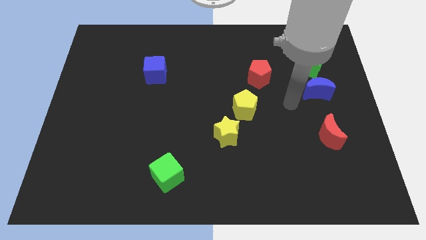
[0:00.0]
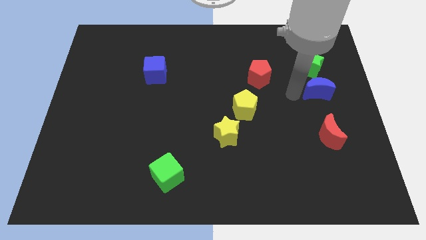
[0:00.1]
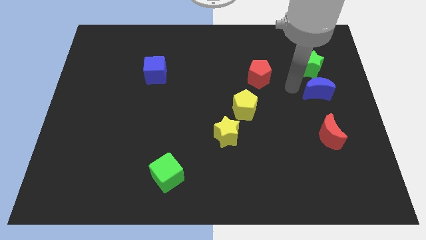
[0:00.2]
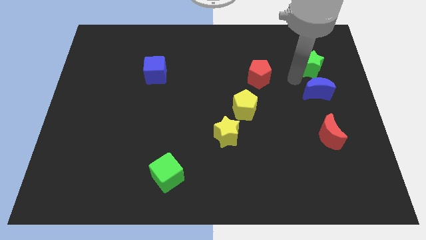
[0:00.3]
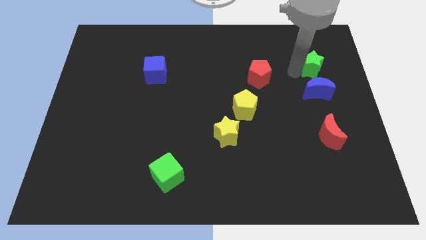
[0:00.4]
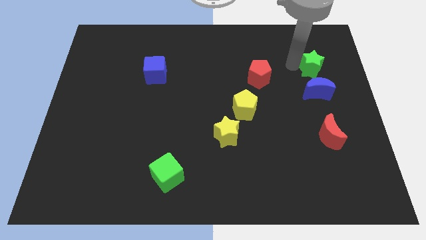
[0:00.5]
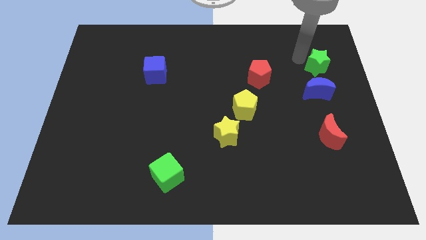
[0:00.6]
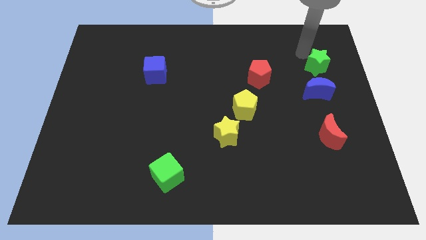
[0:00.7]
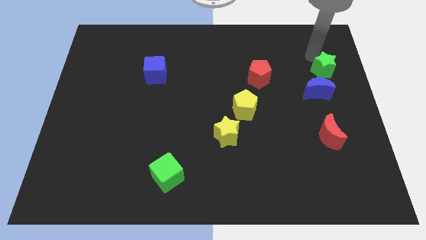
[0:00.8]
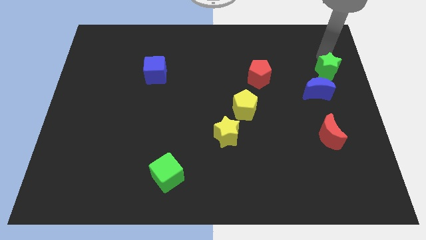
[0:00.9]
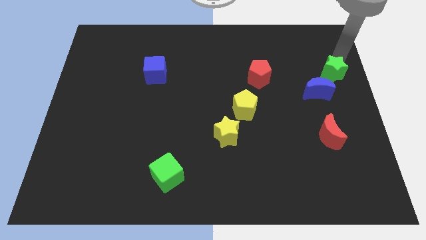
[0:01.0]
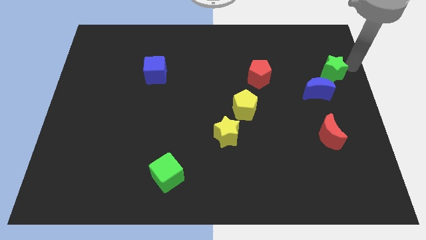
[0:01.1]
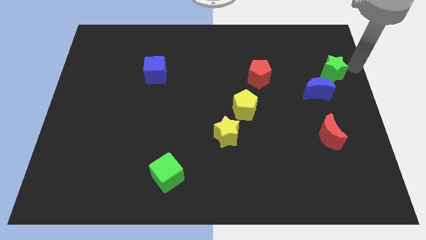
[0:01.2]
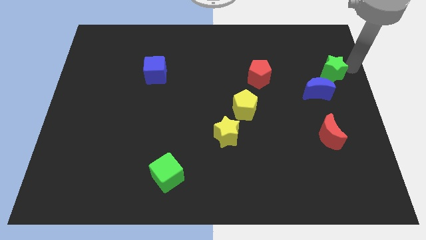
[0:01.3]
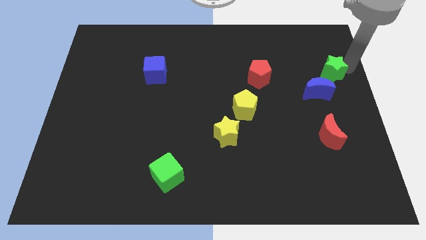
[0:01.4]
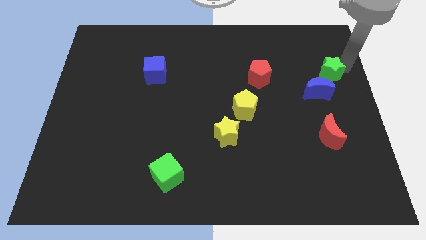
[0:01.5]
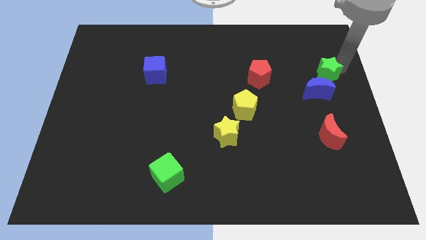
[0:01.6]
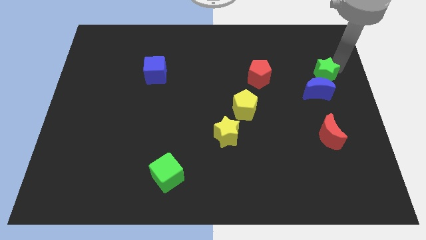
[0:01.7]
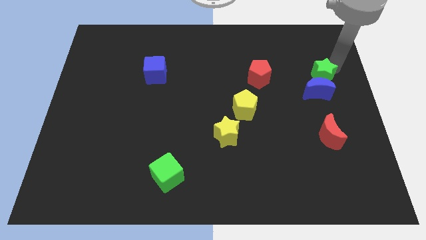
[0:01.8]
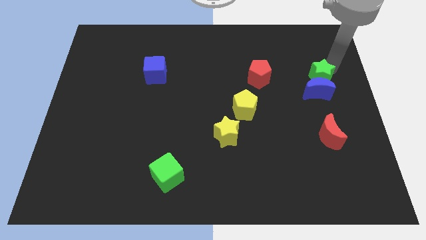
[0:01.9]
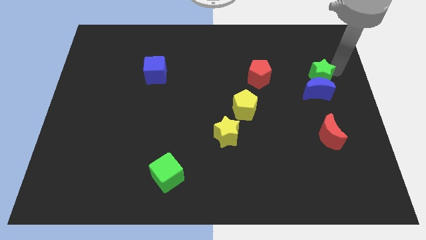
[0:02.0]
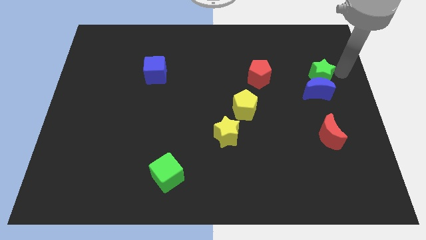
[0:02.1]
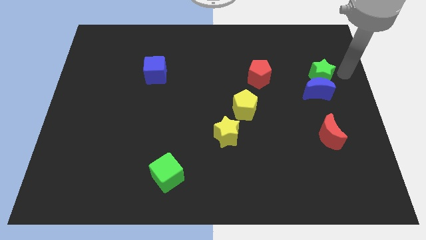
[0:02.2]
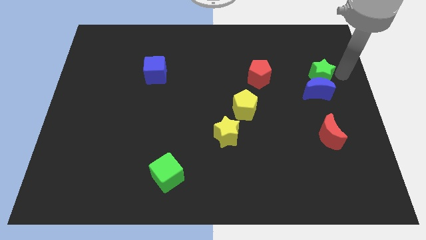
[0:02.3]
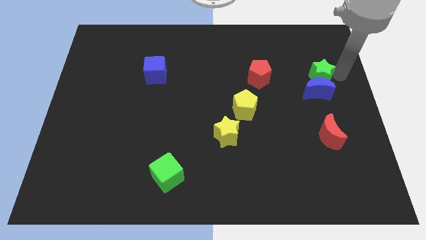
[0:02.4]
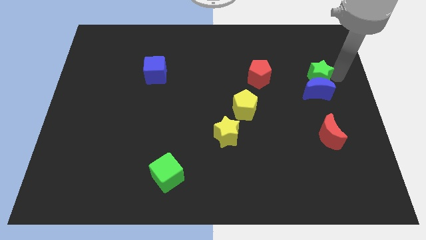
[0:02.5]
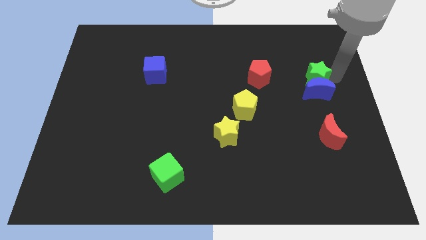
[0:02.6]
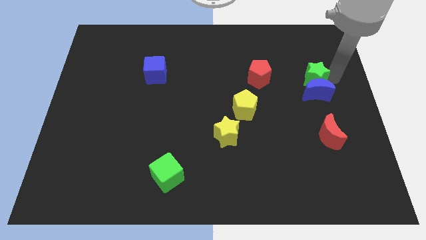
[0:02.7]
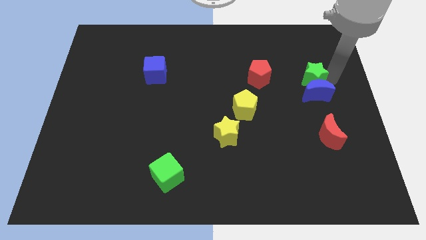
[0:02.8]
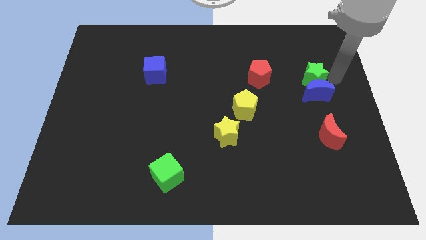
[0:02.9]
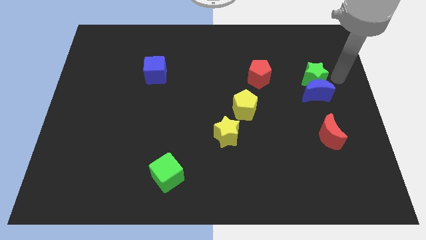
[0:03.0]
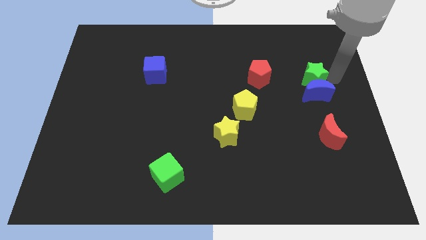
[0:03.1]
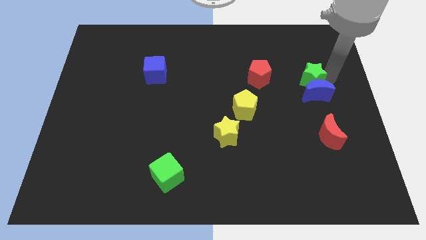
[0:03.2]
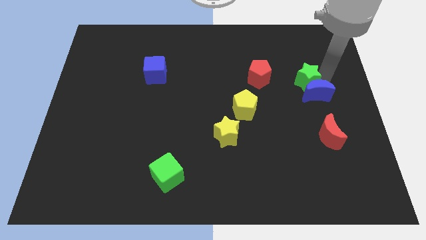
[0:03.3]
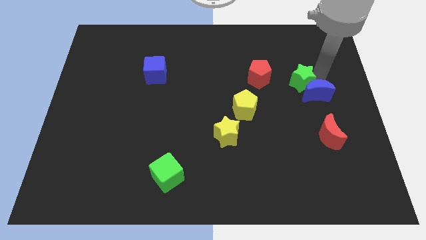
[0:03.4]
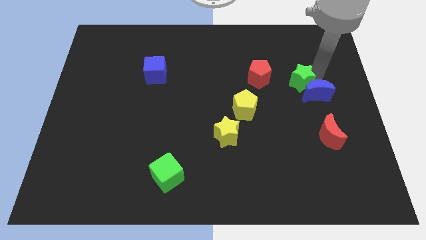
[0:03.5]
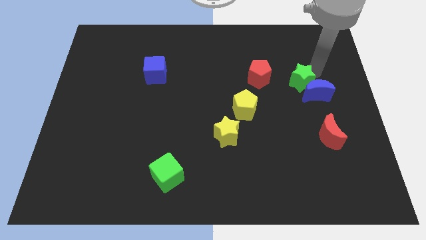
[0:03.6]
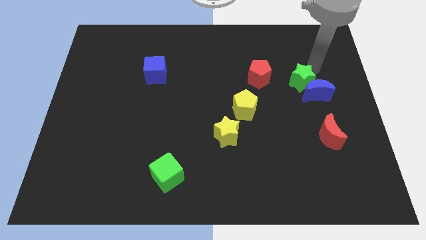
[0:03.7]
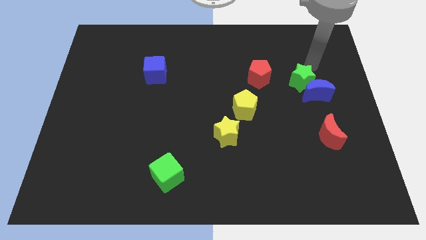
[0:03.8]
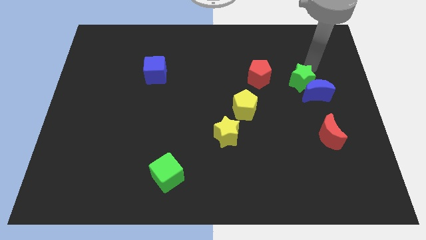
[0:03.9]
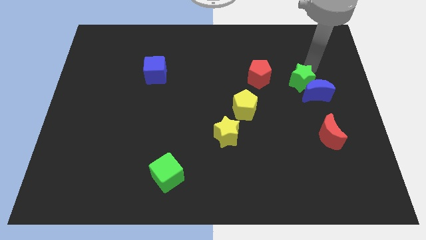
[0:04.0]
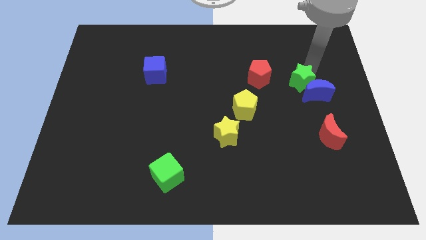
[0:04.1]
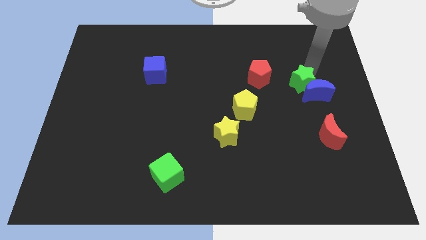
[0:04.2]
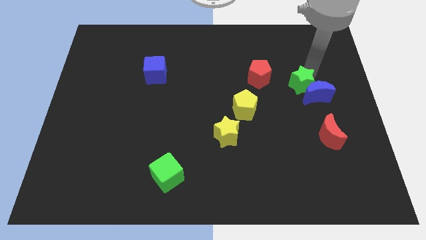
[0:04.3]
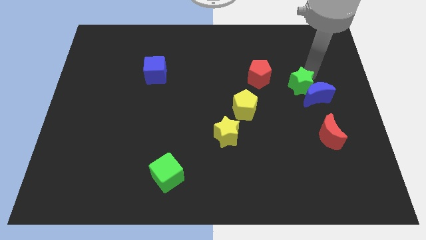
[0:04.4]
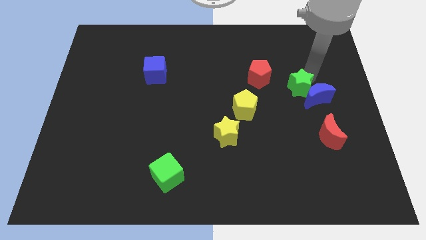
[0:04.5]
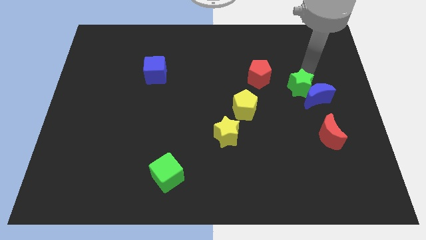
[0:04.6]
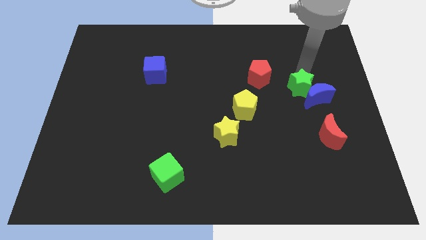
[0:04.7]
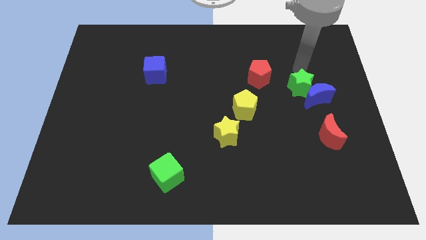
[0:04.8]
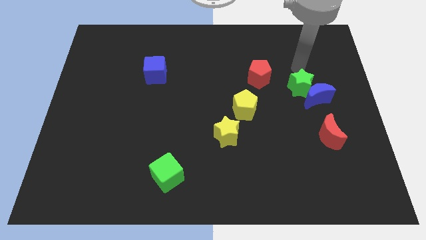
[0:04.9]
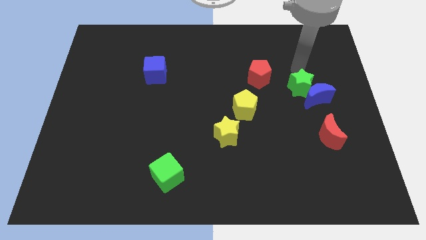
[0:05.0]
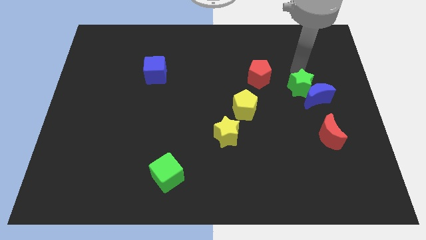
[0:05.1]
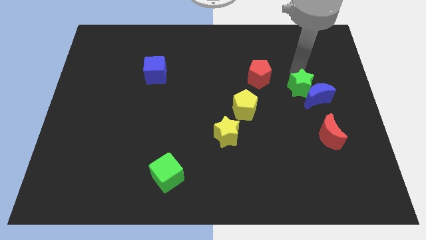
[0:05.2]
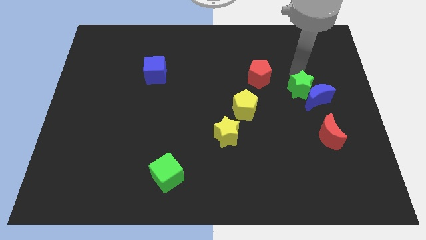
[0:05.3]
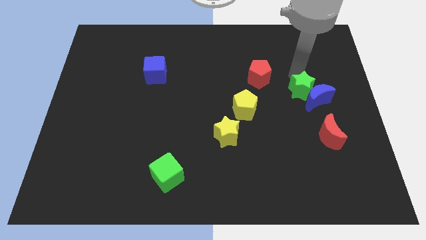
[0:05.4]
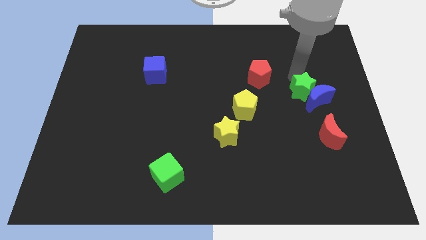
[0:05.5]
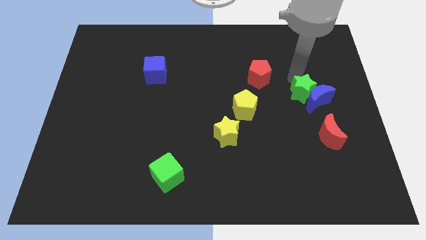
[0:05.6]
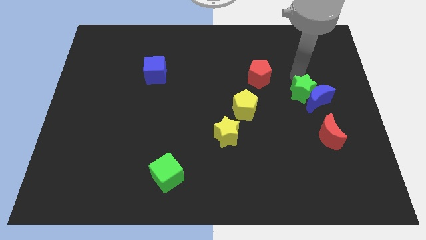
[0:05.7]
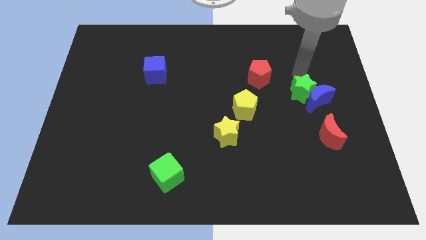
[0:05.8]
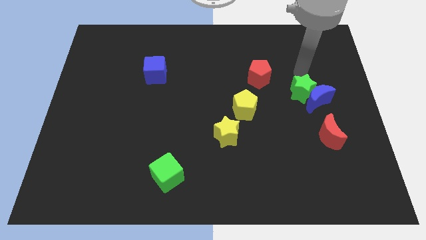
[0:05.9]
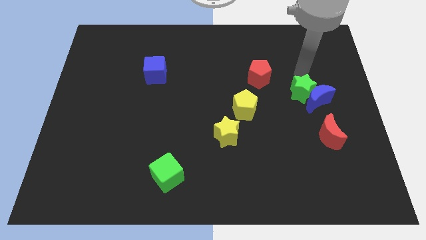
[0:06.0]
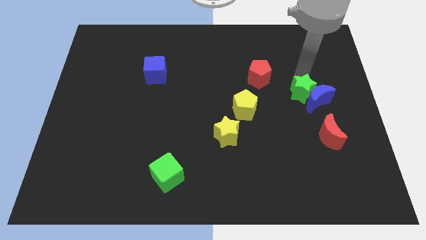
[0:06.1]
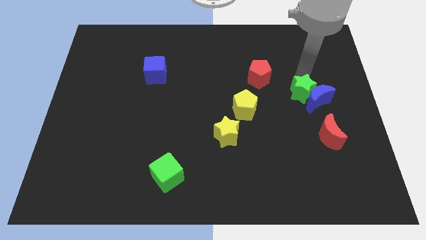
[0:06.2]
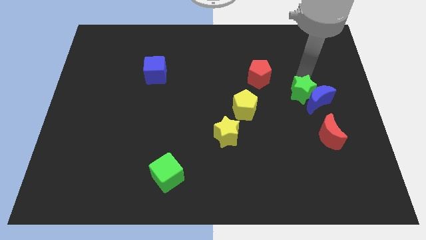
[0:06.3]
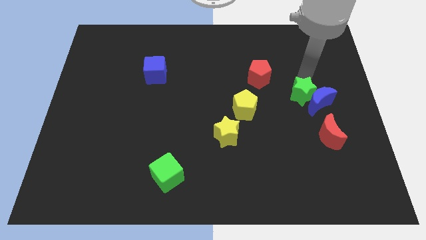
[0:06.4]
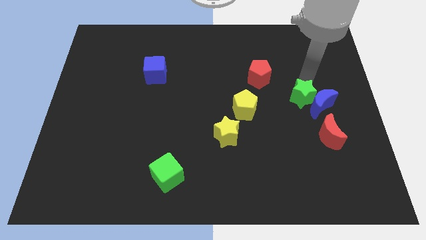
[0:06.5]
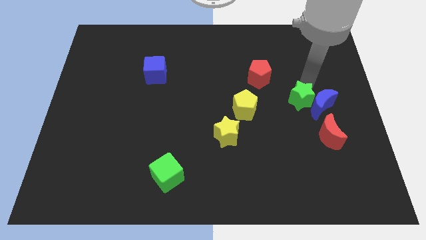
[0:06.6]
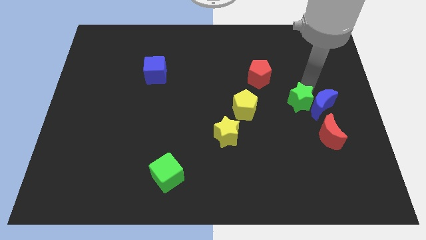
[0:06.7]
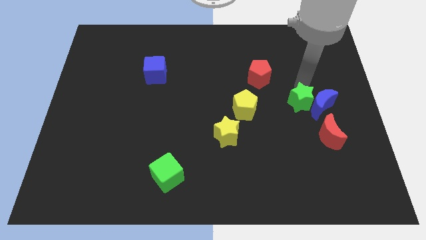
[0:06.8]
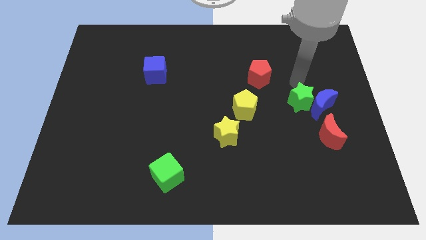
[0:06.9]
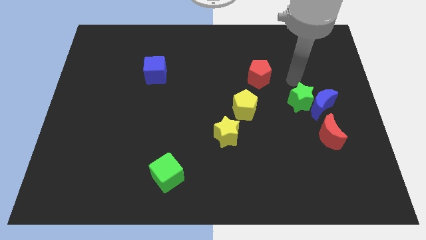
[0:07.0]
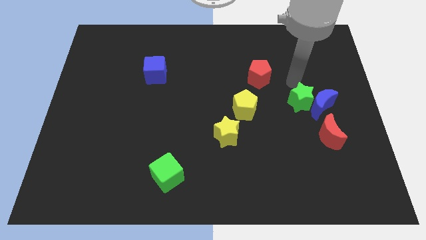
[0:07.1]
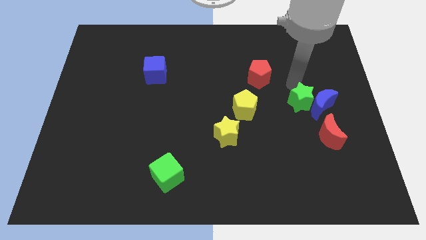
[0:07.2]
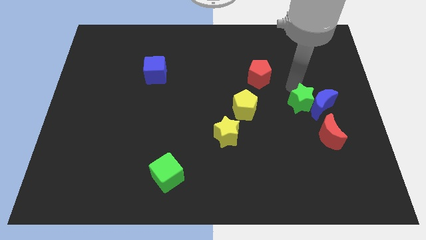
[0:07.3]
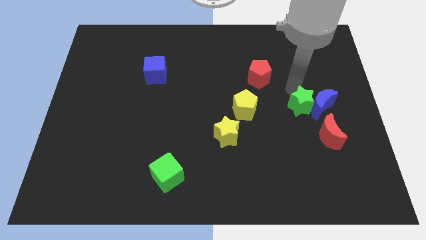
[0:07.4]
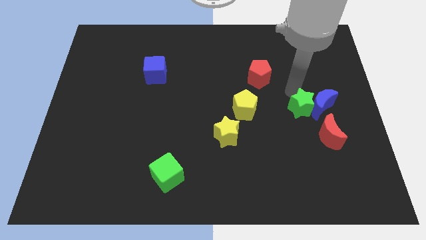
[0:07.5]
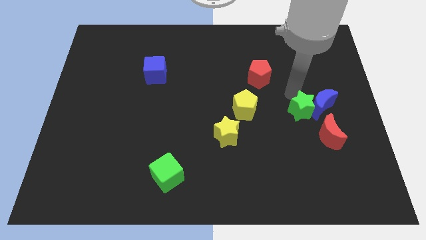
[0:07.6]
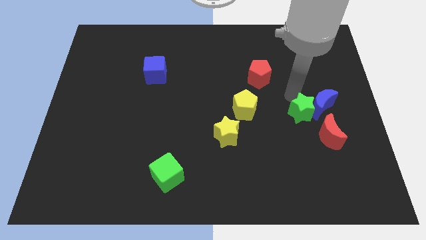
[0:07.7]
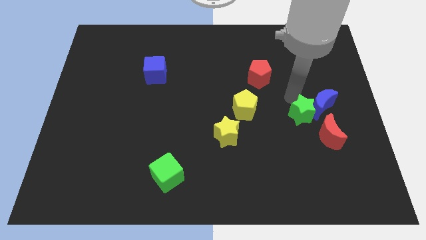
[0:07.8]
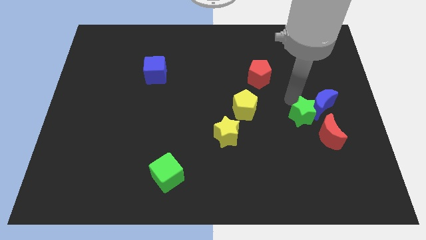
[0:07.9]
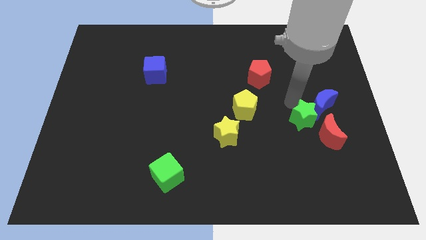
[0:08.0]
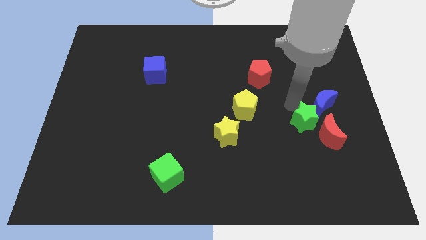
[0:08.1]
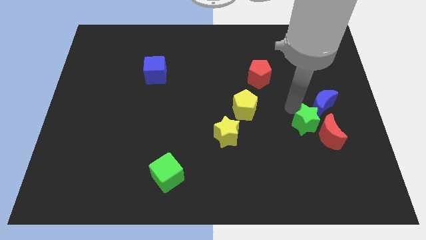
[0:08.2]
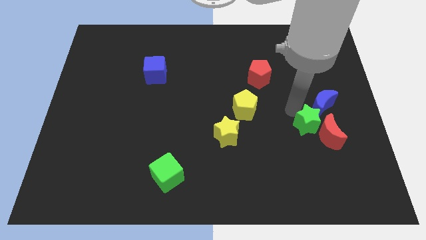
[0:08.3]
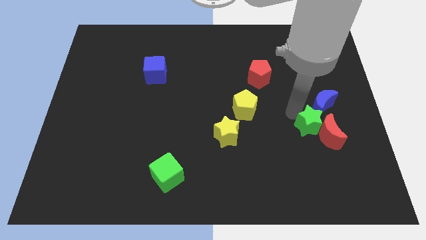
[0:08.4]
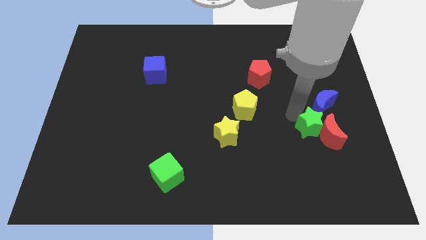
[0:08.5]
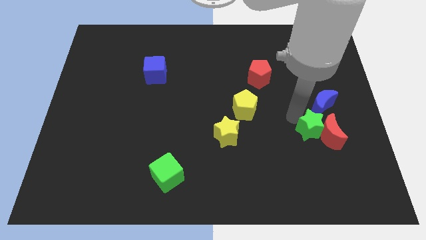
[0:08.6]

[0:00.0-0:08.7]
move the green star to the bottom left of the red moon
